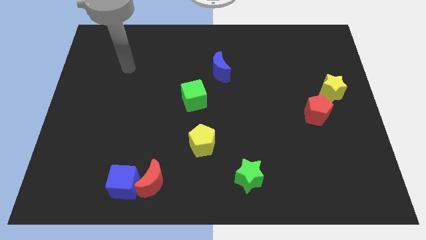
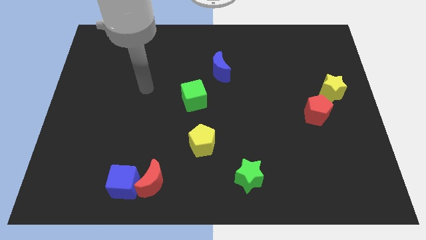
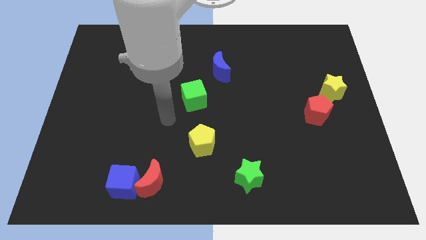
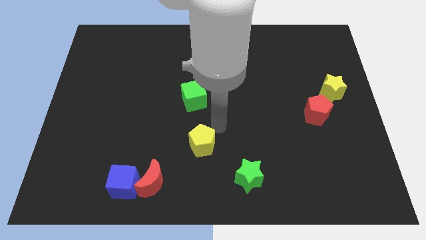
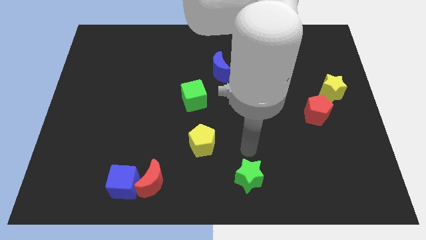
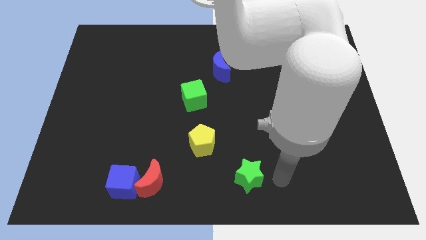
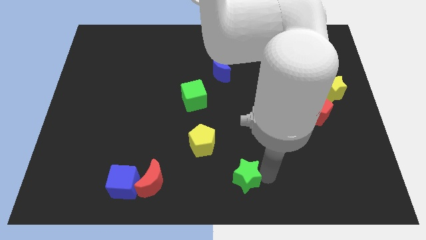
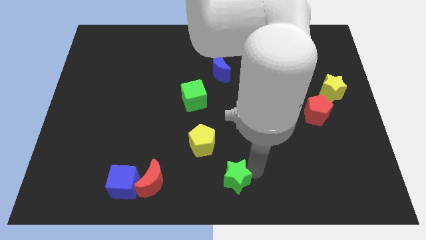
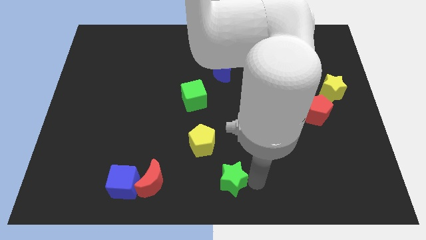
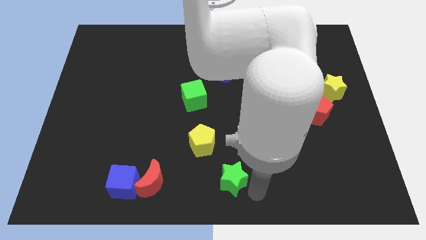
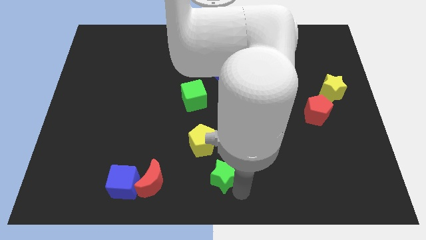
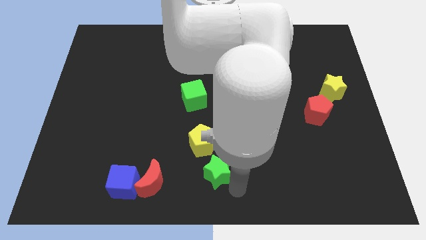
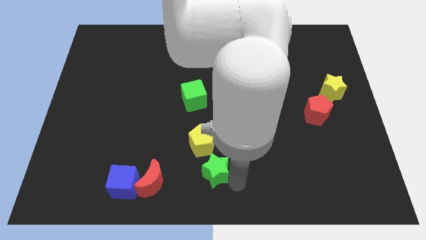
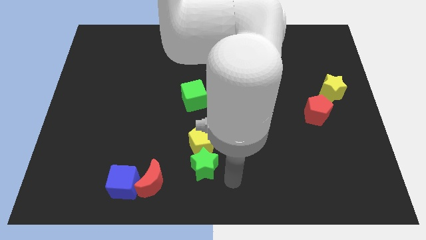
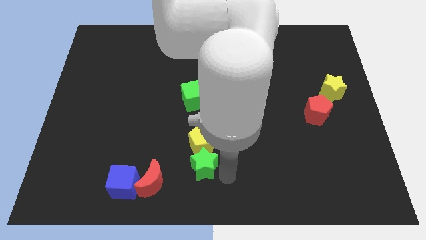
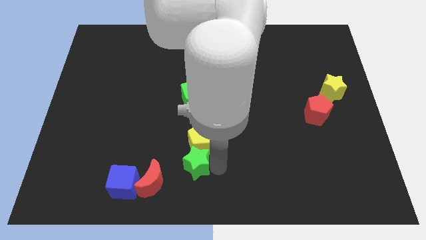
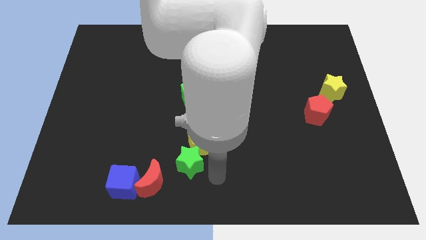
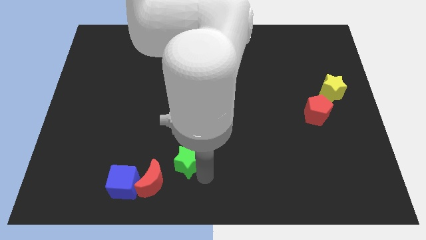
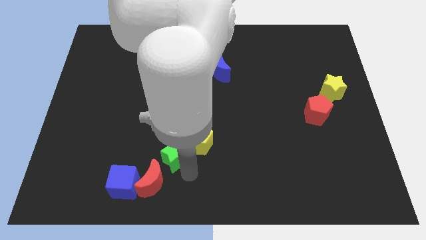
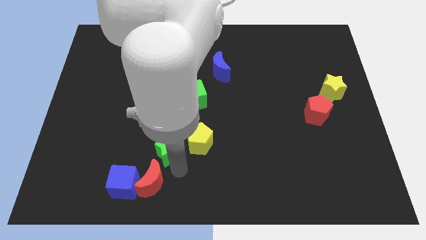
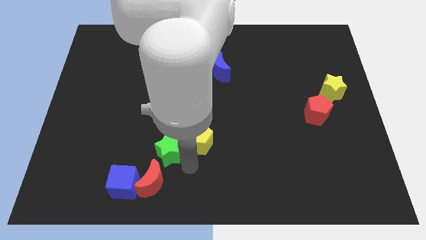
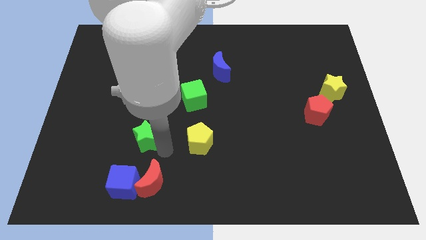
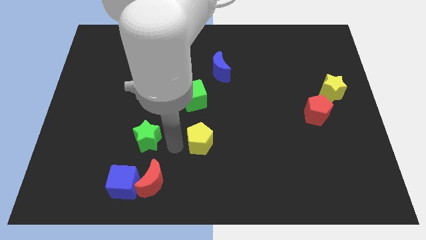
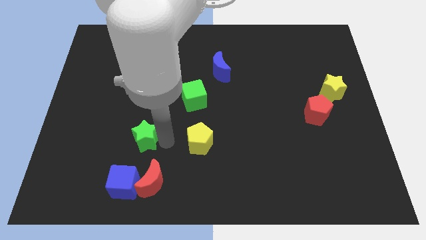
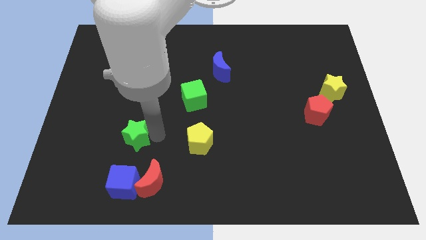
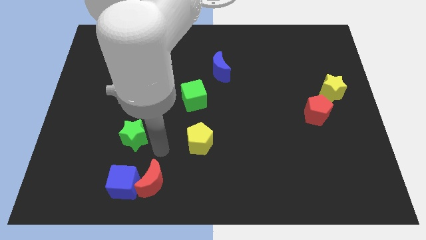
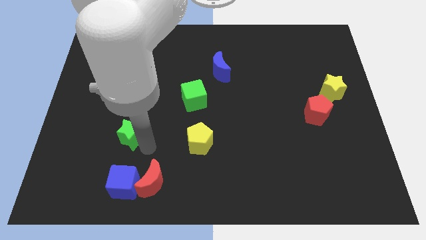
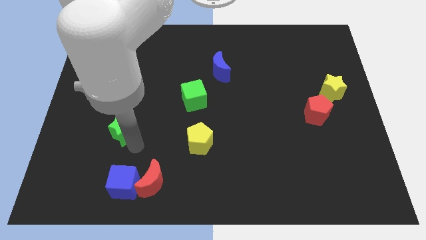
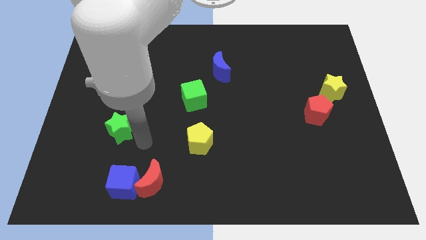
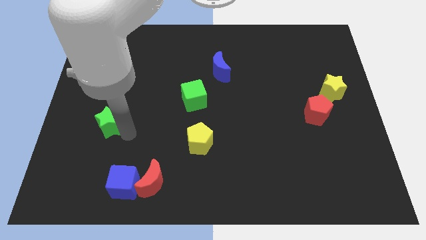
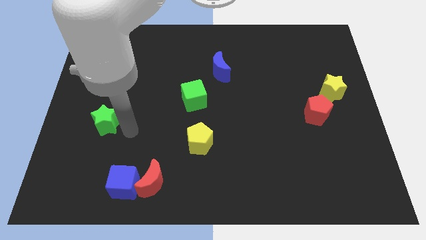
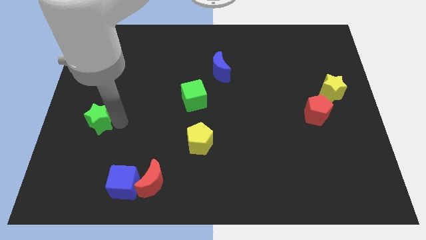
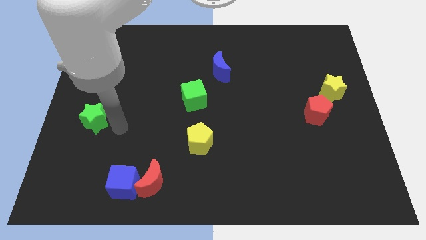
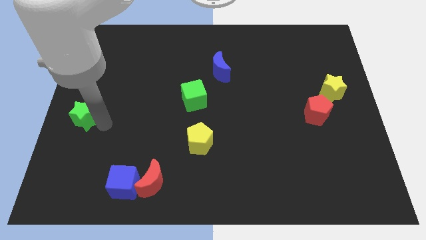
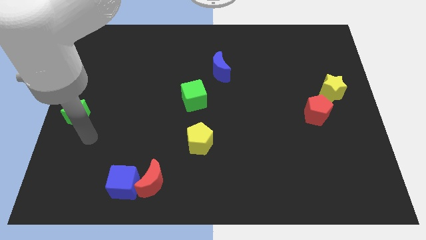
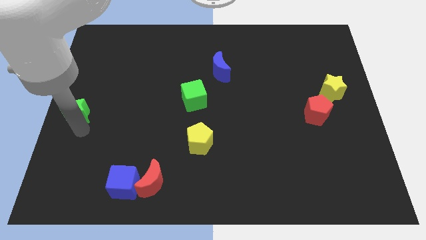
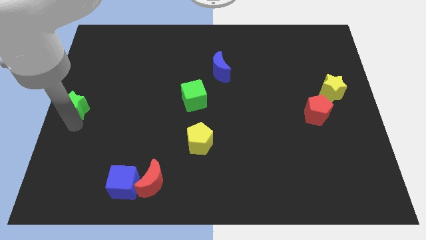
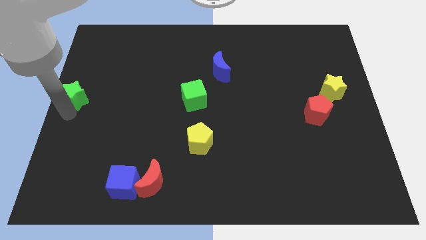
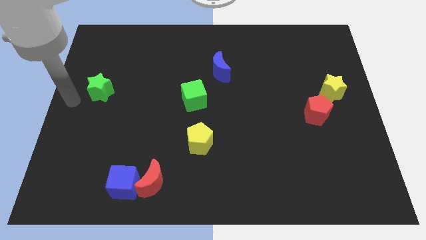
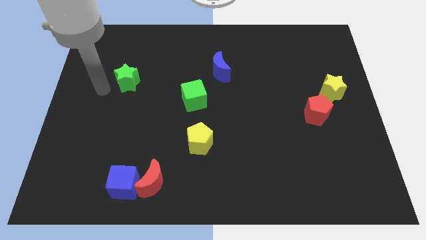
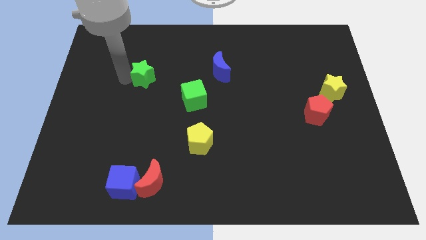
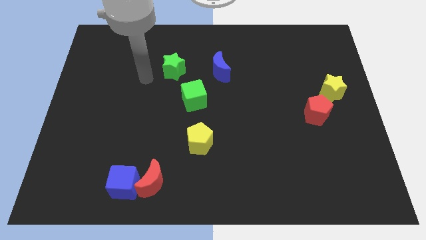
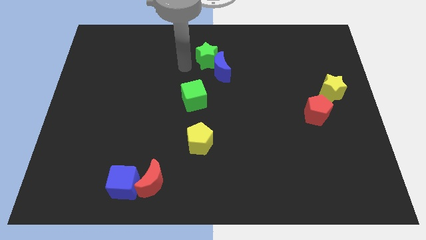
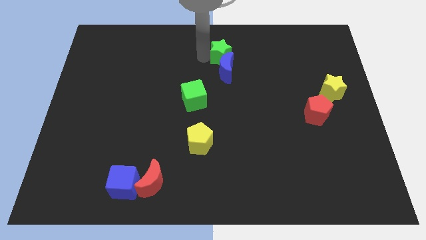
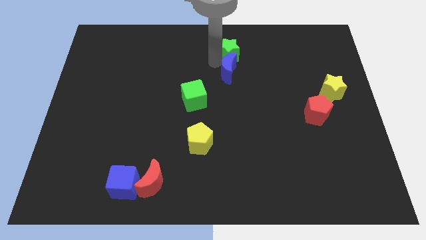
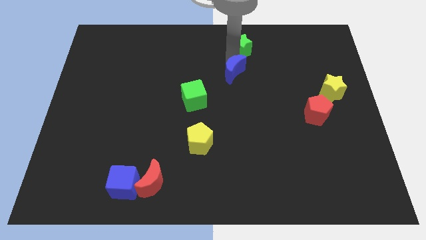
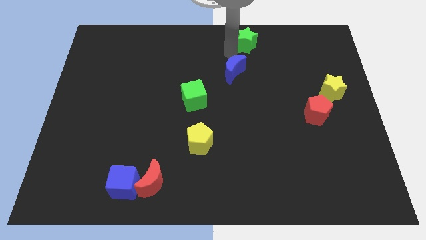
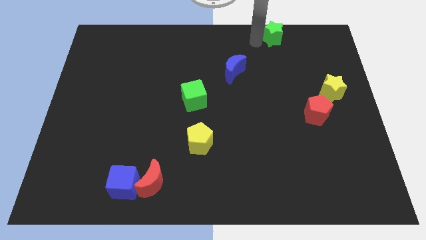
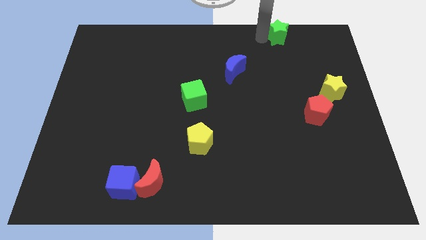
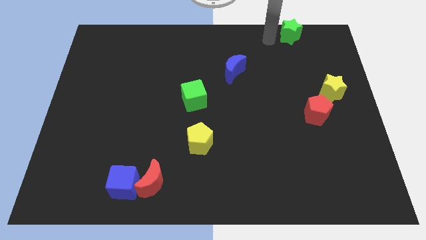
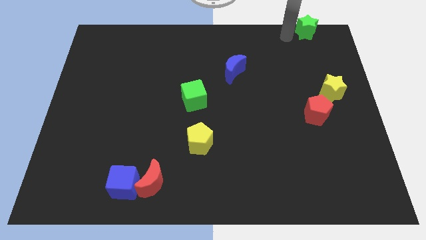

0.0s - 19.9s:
put the green star to the upper right corner
